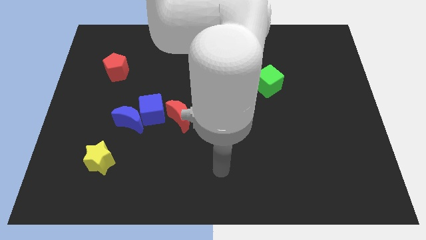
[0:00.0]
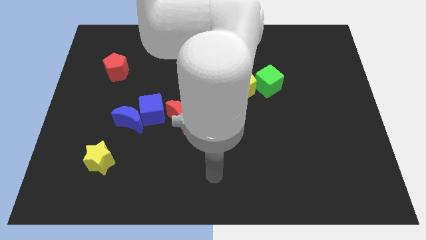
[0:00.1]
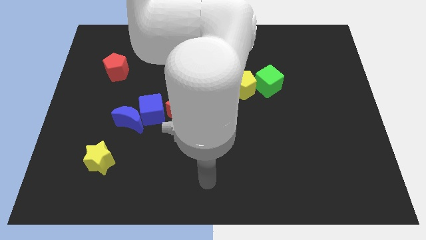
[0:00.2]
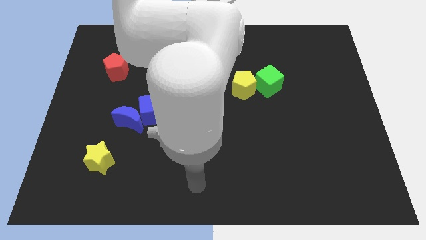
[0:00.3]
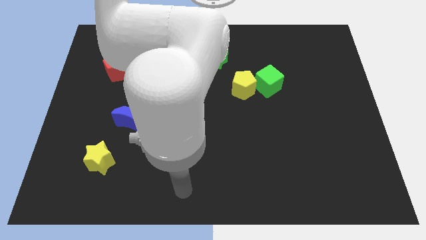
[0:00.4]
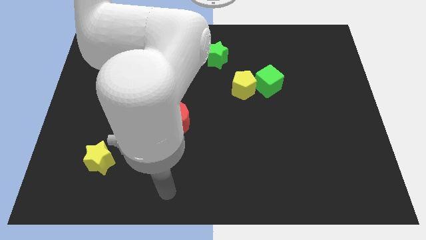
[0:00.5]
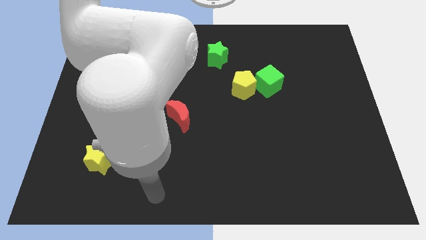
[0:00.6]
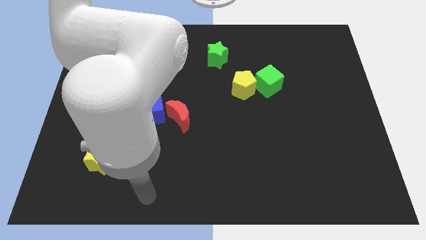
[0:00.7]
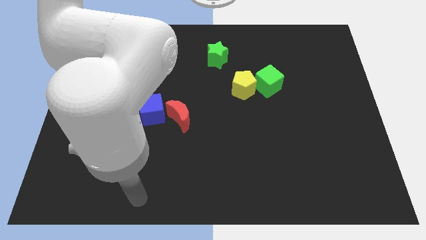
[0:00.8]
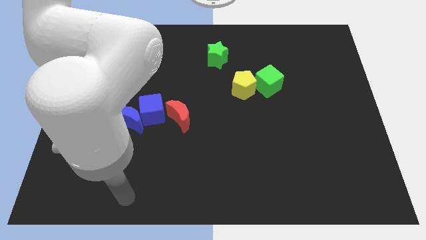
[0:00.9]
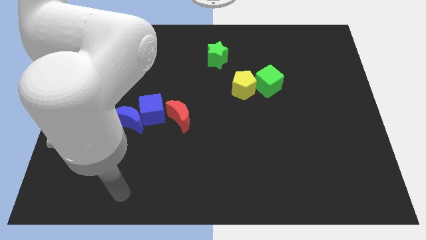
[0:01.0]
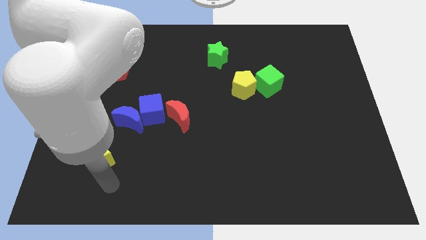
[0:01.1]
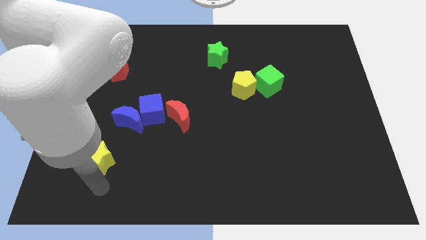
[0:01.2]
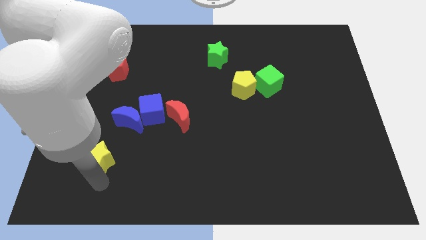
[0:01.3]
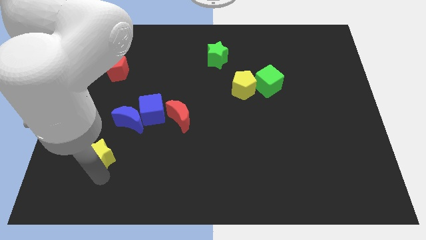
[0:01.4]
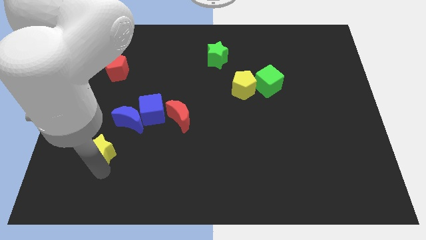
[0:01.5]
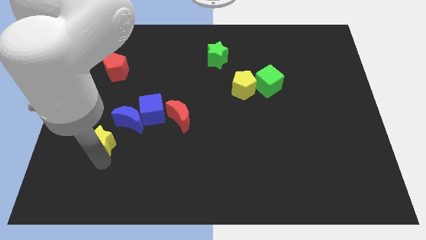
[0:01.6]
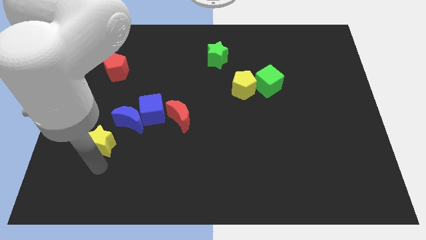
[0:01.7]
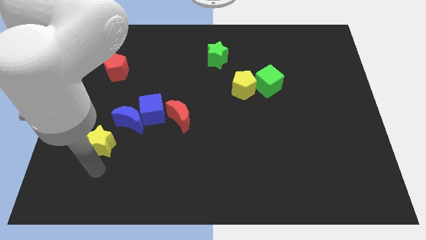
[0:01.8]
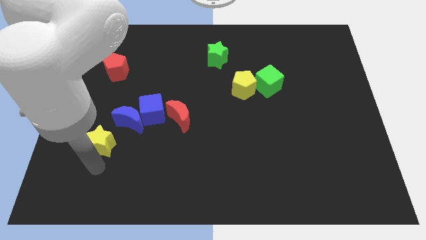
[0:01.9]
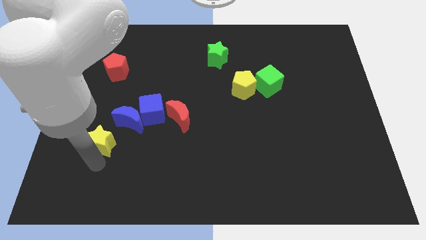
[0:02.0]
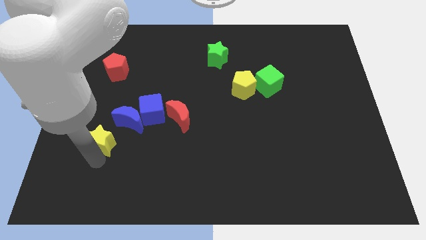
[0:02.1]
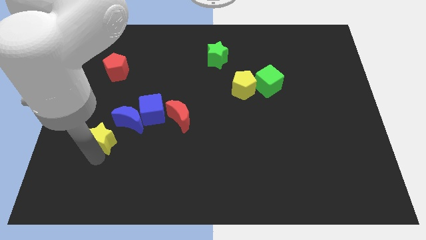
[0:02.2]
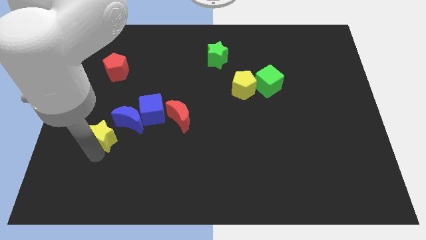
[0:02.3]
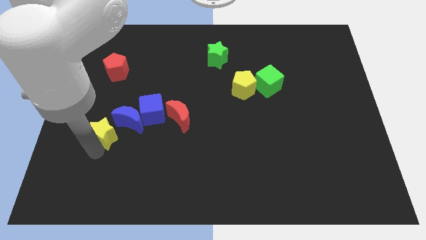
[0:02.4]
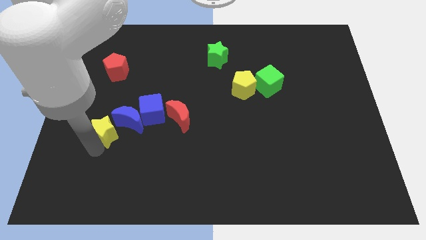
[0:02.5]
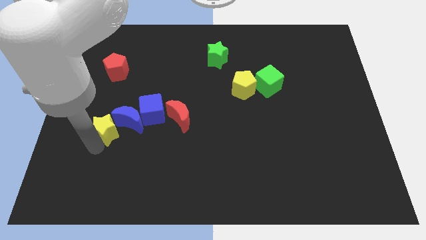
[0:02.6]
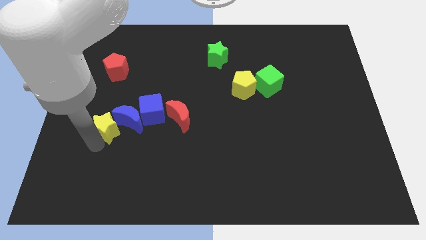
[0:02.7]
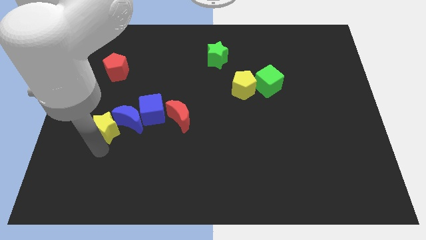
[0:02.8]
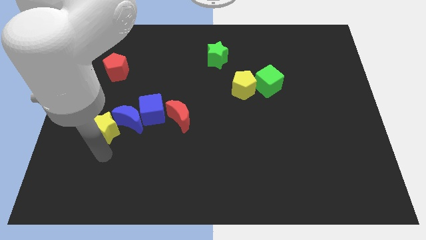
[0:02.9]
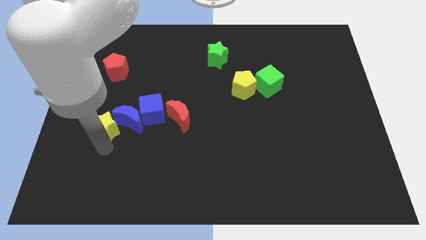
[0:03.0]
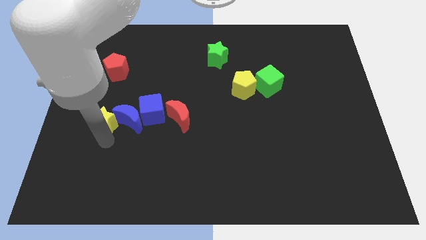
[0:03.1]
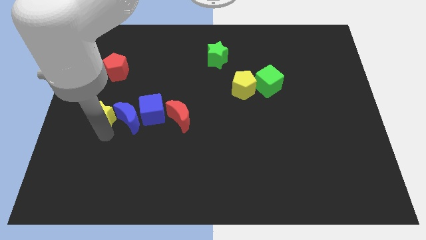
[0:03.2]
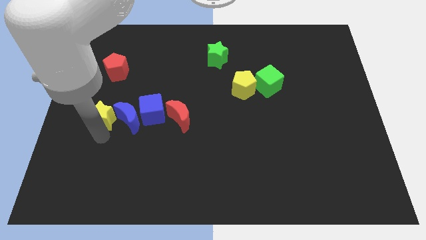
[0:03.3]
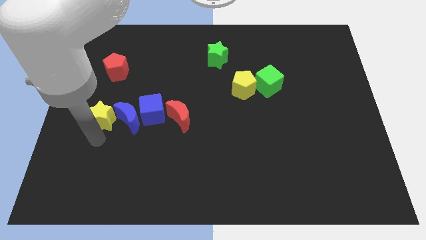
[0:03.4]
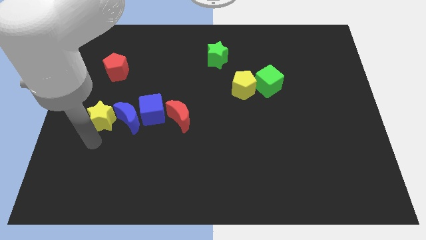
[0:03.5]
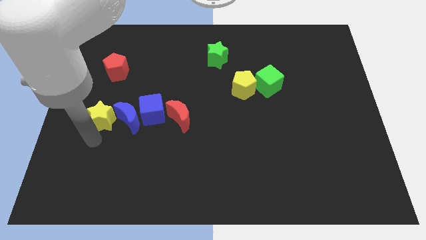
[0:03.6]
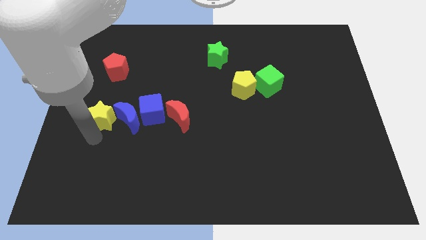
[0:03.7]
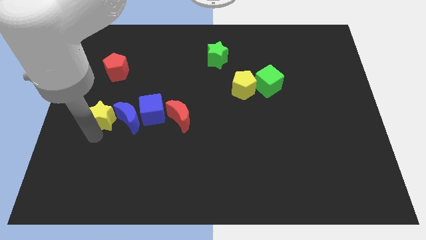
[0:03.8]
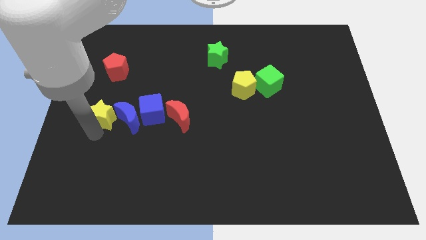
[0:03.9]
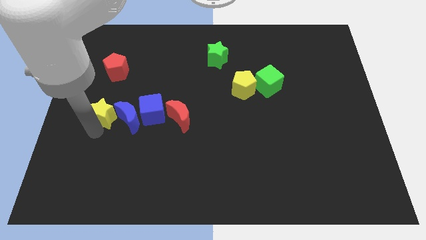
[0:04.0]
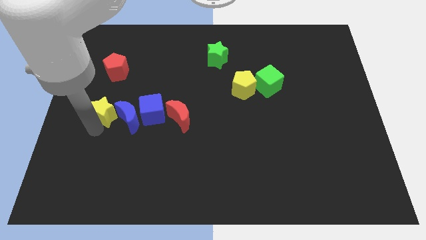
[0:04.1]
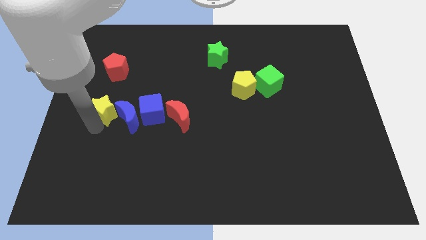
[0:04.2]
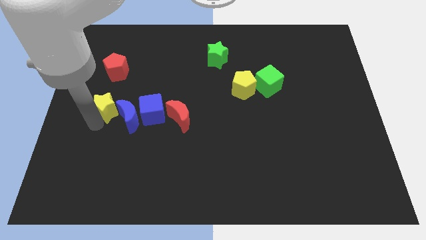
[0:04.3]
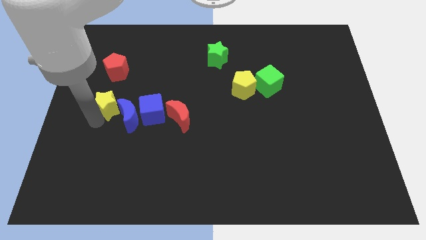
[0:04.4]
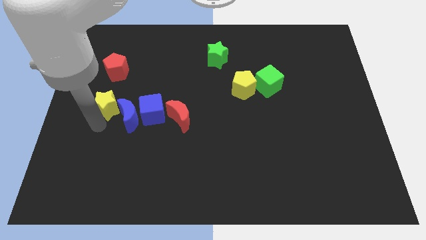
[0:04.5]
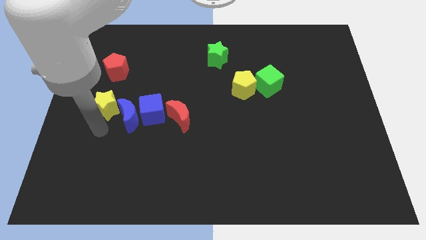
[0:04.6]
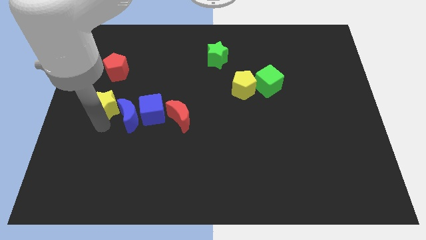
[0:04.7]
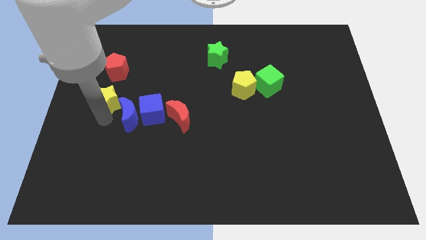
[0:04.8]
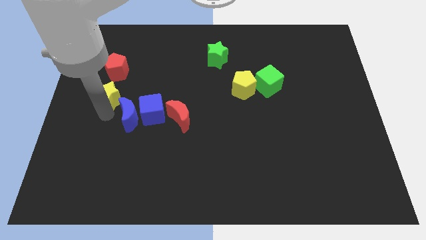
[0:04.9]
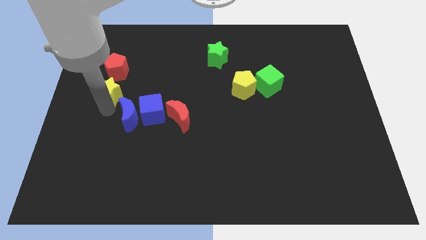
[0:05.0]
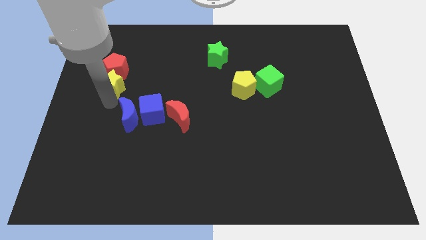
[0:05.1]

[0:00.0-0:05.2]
put the yellow star towards the red pentagon

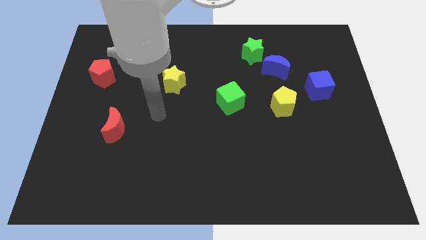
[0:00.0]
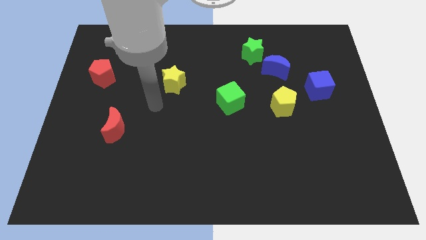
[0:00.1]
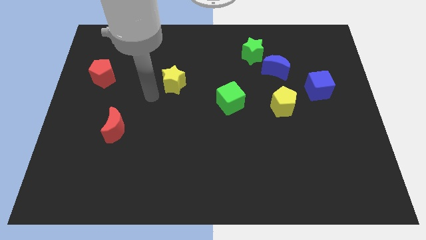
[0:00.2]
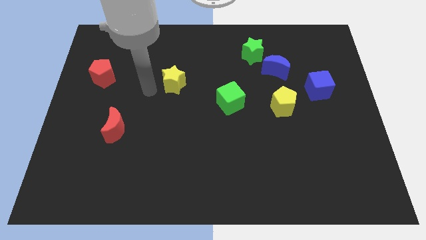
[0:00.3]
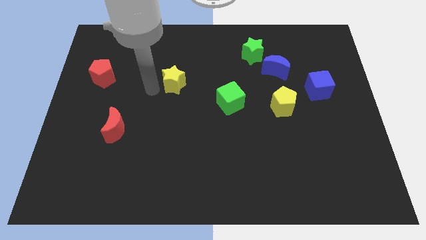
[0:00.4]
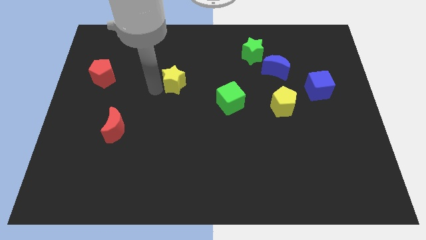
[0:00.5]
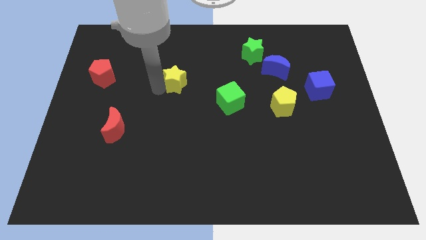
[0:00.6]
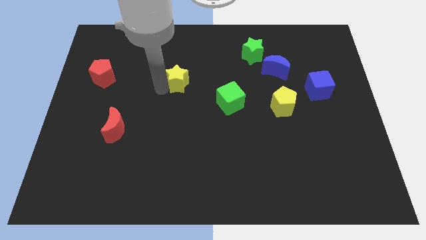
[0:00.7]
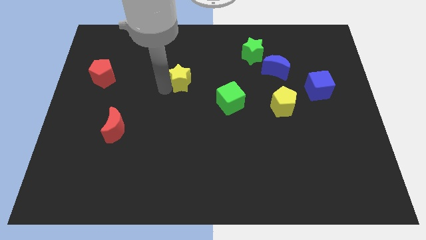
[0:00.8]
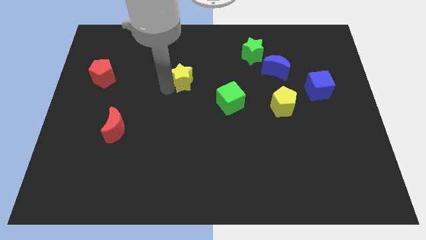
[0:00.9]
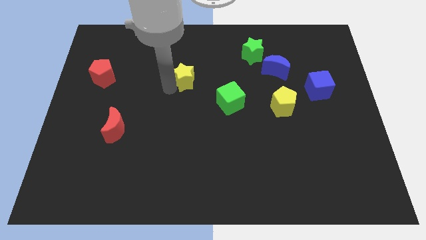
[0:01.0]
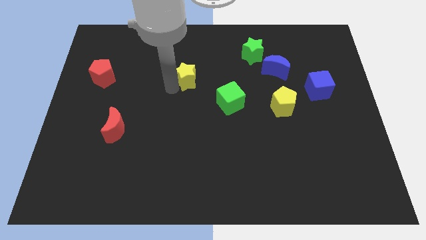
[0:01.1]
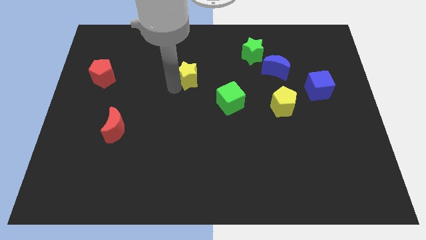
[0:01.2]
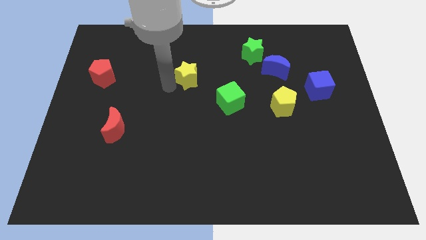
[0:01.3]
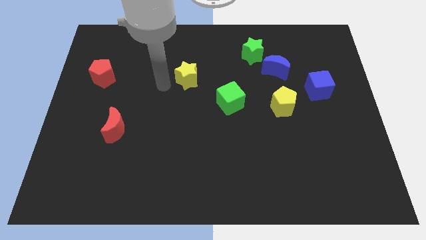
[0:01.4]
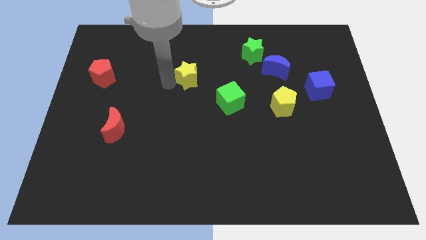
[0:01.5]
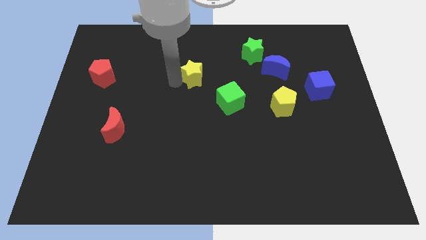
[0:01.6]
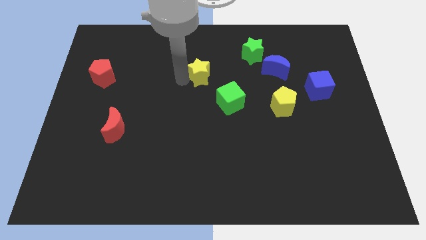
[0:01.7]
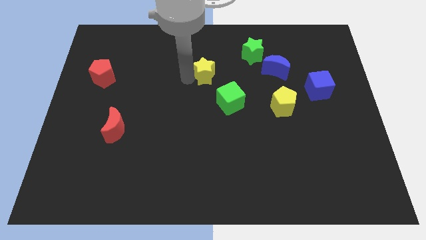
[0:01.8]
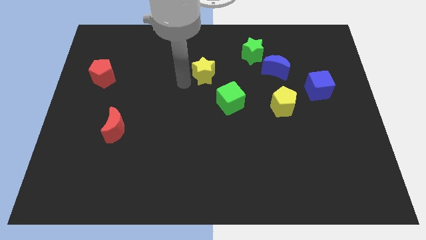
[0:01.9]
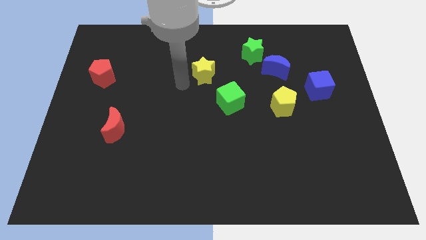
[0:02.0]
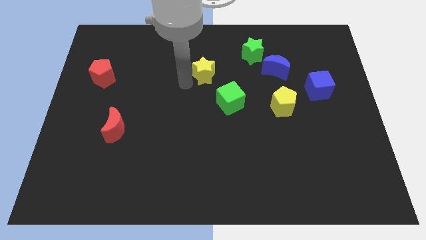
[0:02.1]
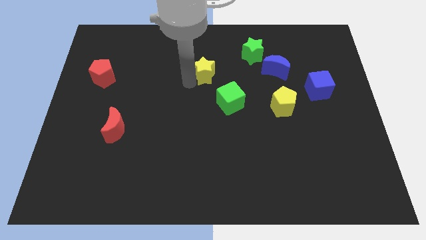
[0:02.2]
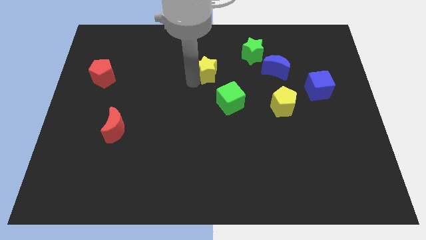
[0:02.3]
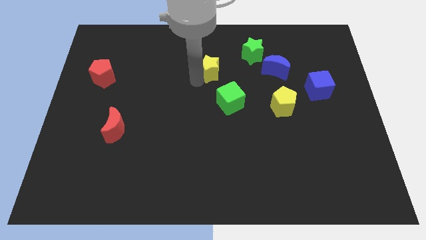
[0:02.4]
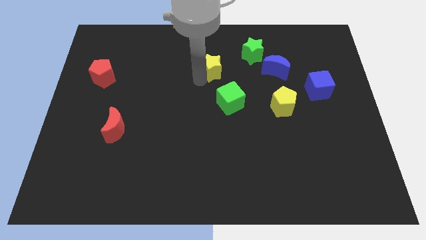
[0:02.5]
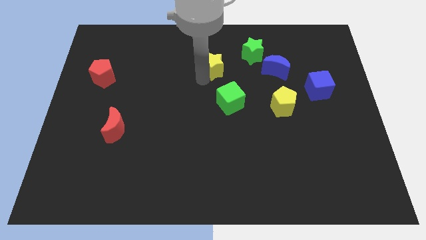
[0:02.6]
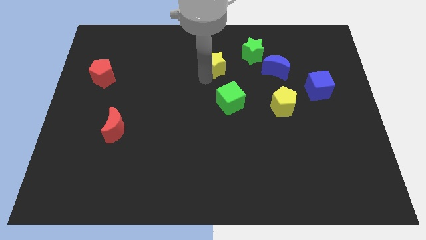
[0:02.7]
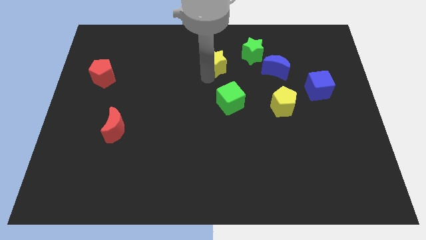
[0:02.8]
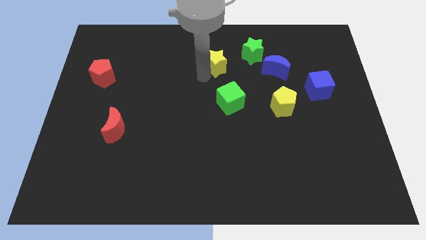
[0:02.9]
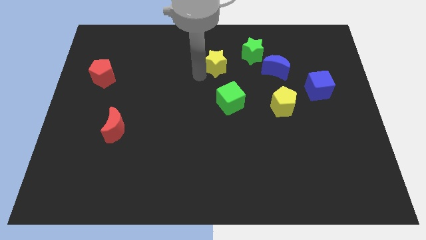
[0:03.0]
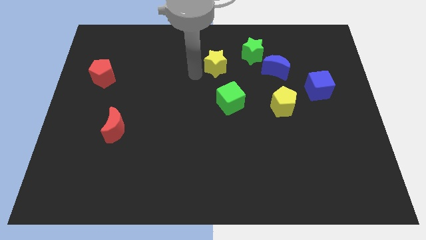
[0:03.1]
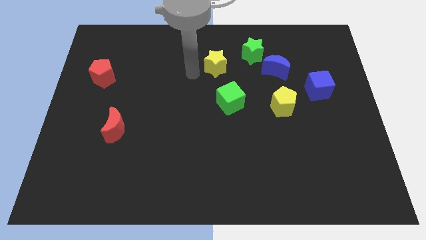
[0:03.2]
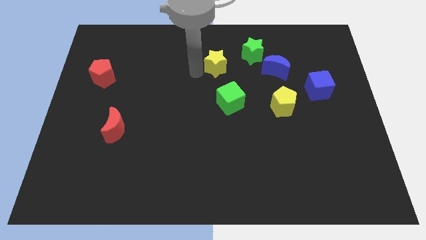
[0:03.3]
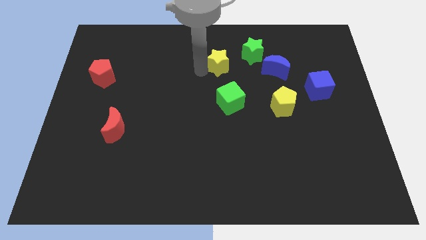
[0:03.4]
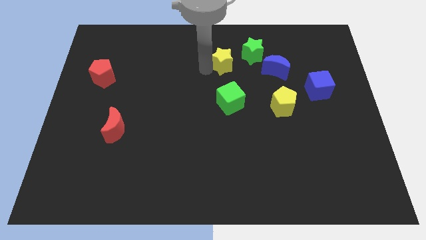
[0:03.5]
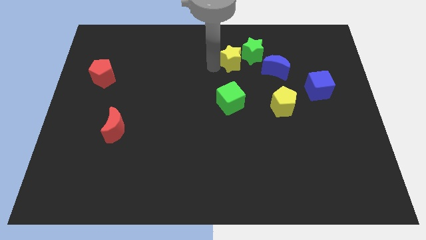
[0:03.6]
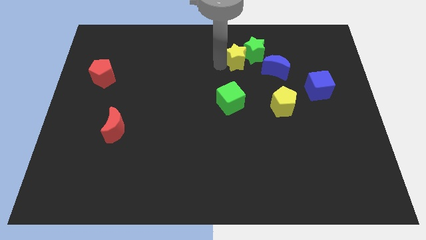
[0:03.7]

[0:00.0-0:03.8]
slide the yellow star towards the green star
